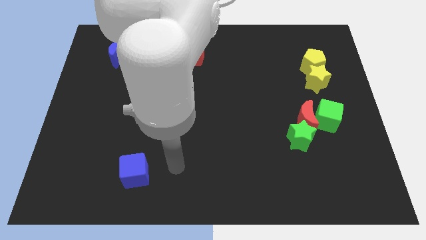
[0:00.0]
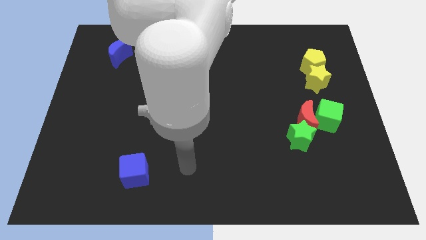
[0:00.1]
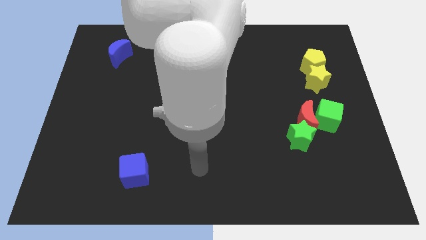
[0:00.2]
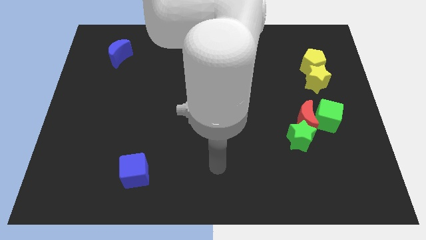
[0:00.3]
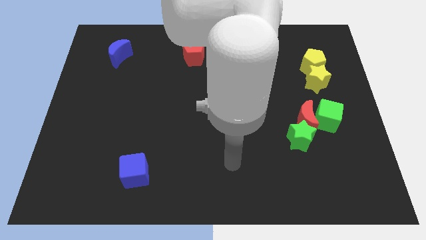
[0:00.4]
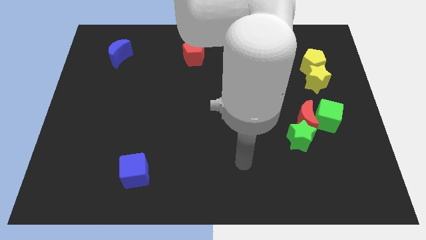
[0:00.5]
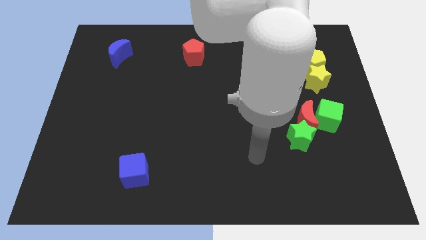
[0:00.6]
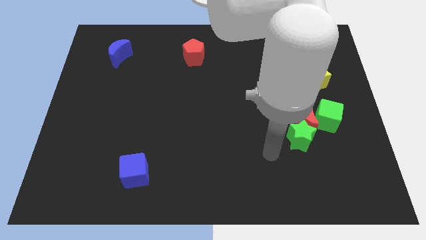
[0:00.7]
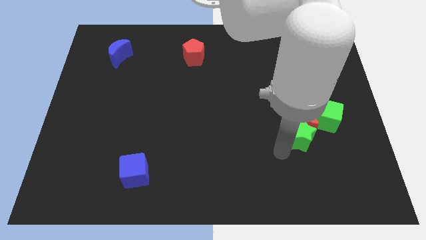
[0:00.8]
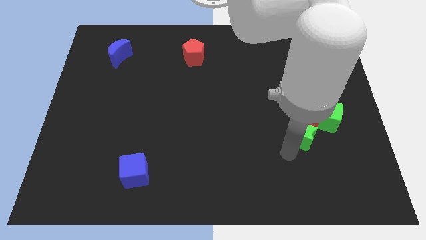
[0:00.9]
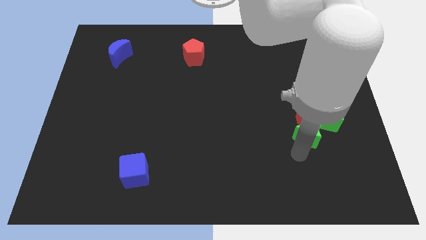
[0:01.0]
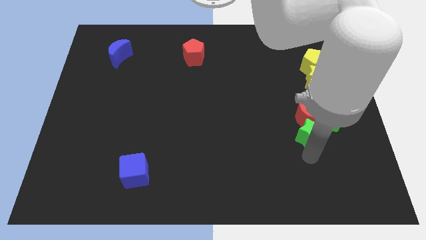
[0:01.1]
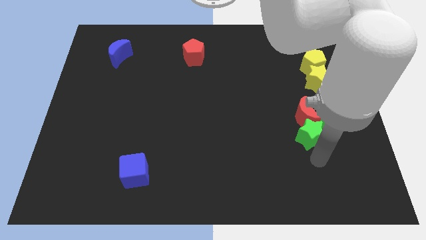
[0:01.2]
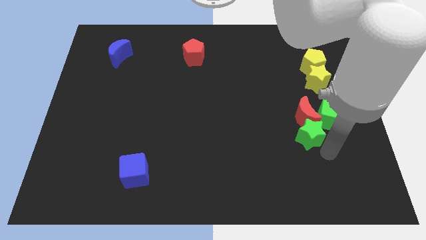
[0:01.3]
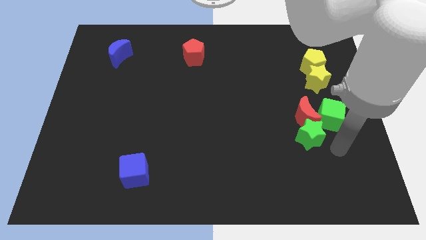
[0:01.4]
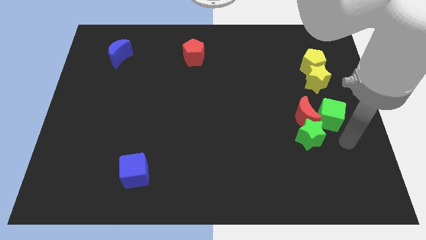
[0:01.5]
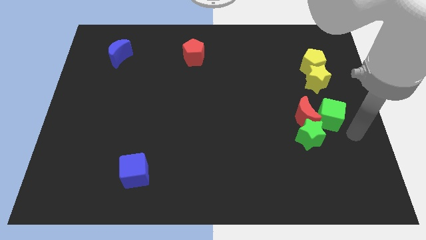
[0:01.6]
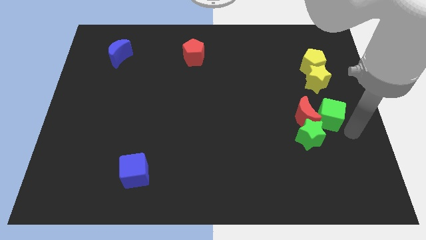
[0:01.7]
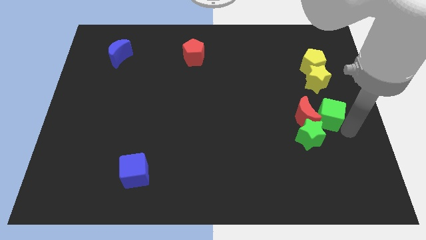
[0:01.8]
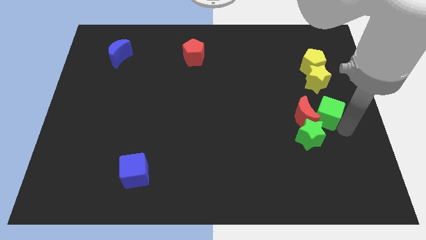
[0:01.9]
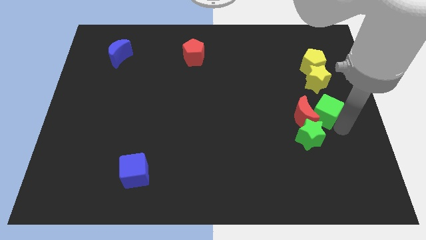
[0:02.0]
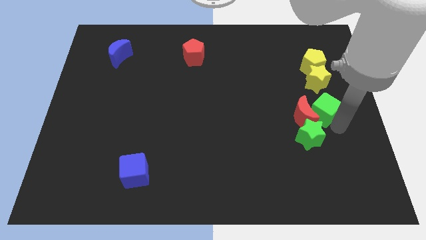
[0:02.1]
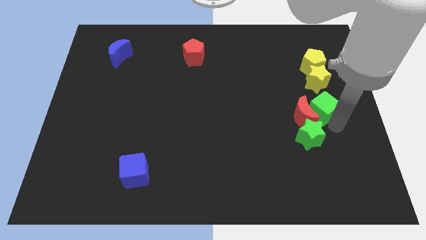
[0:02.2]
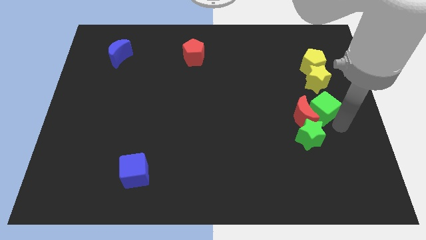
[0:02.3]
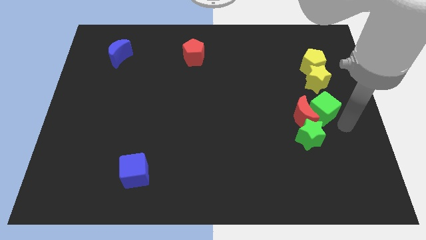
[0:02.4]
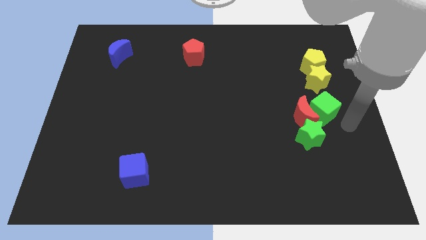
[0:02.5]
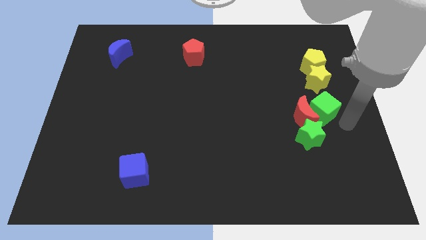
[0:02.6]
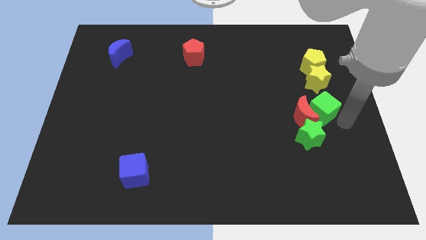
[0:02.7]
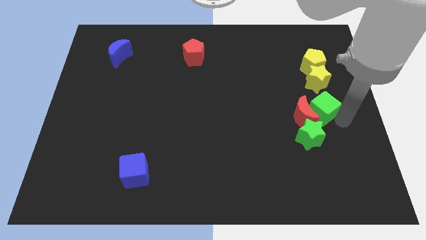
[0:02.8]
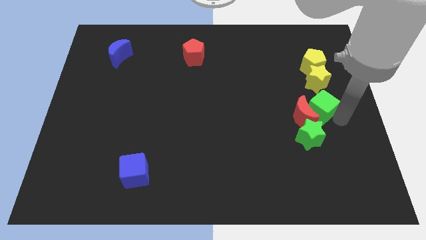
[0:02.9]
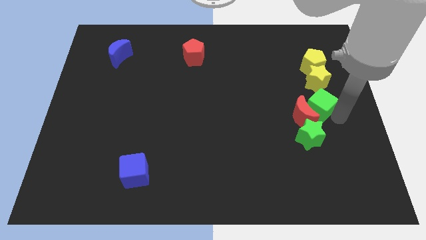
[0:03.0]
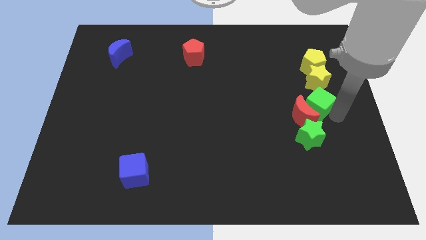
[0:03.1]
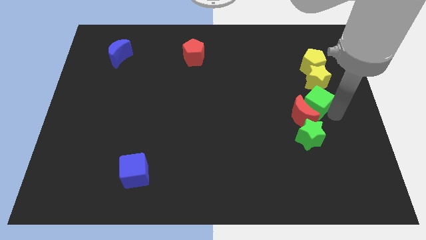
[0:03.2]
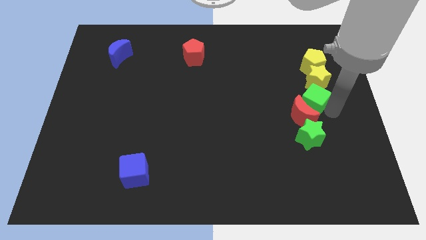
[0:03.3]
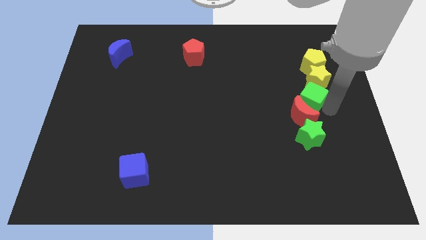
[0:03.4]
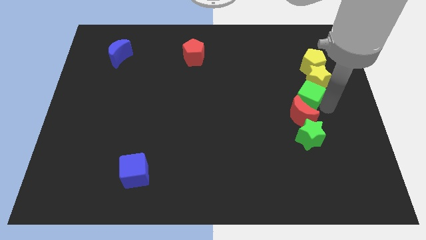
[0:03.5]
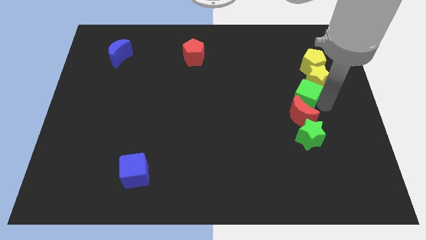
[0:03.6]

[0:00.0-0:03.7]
slightly push the green cube upwards and to the left diagonally

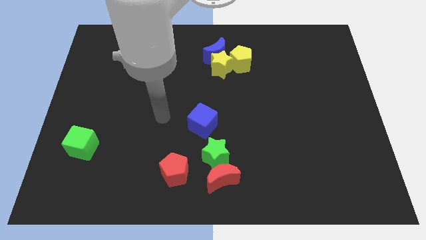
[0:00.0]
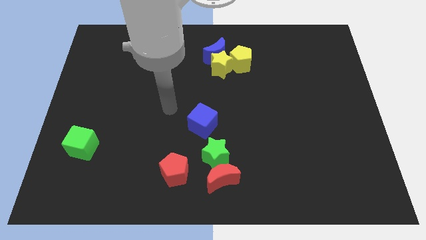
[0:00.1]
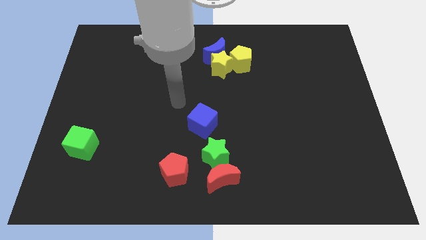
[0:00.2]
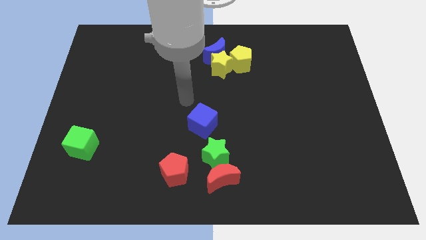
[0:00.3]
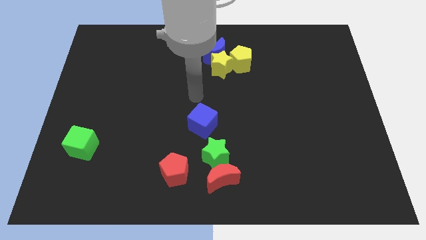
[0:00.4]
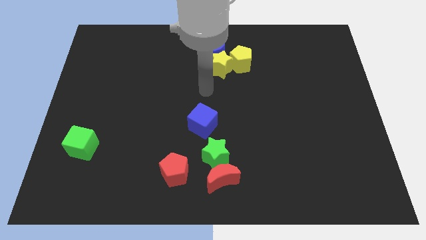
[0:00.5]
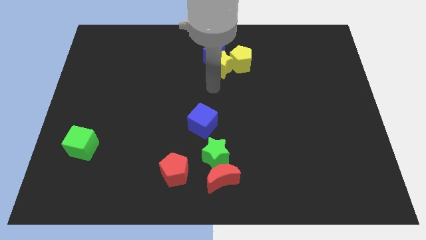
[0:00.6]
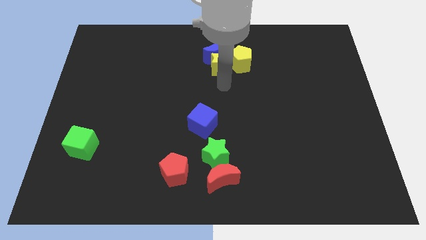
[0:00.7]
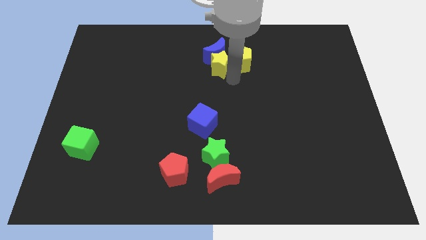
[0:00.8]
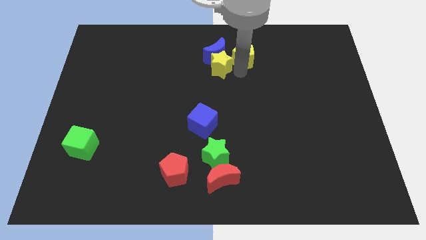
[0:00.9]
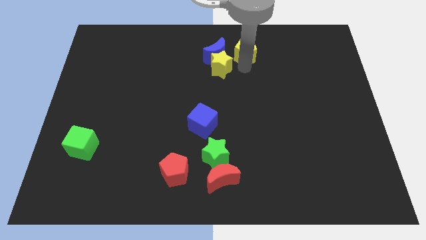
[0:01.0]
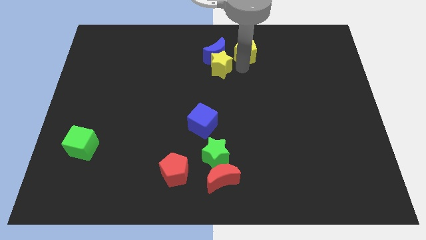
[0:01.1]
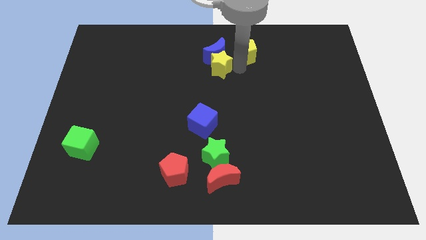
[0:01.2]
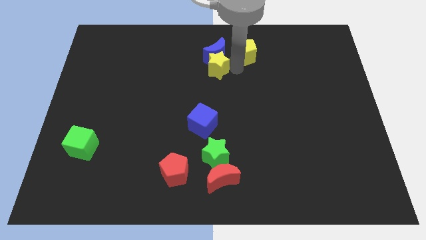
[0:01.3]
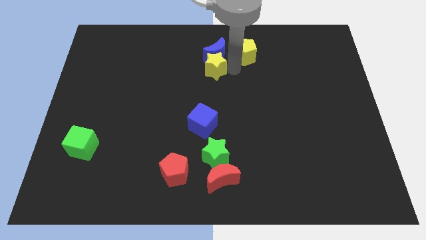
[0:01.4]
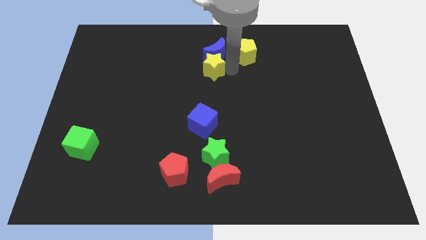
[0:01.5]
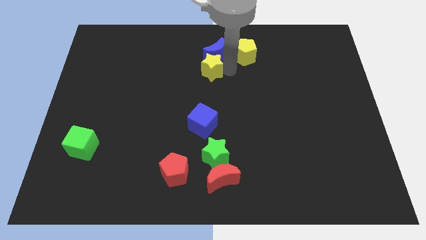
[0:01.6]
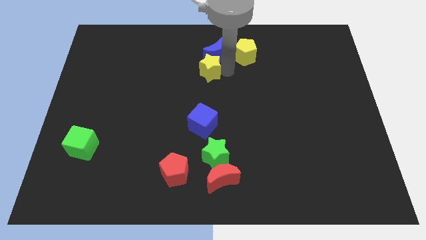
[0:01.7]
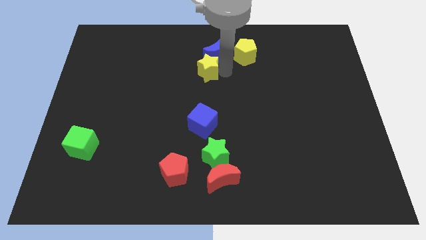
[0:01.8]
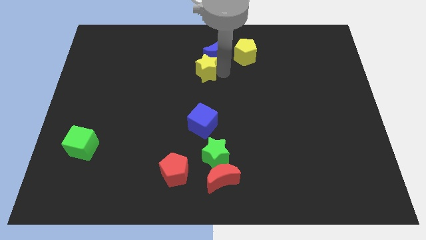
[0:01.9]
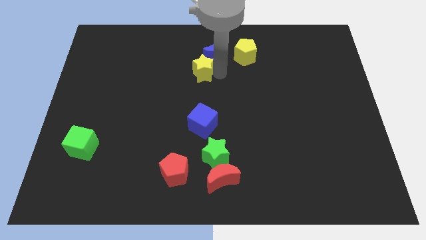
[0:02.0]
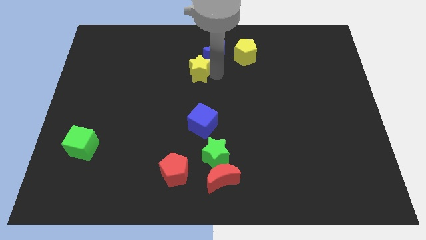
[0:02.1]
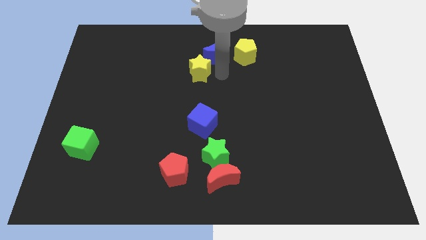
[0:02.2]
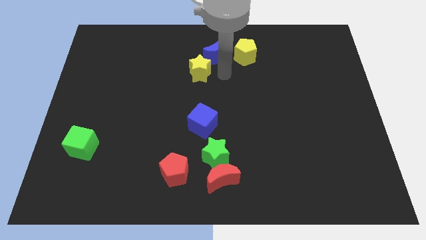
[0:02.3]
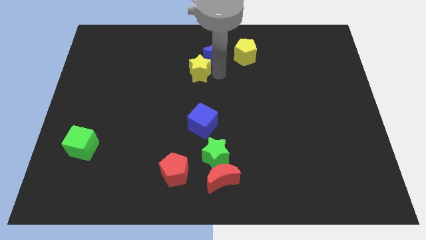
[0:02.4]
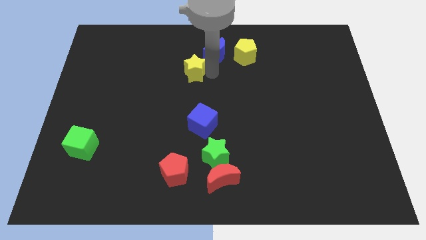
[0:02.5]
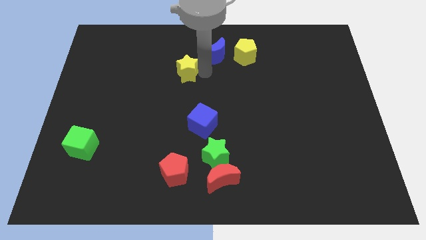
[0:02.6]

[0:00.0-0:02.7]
push the yellow star left a bit

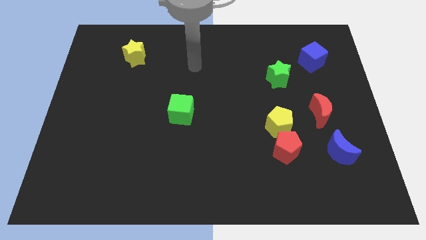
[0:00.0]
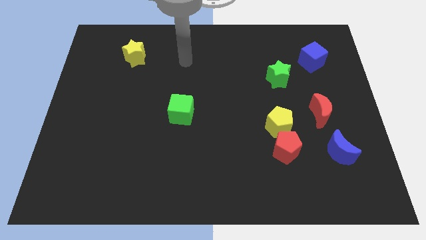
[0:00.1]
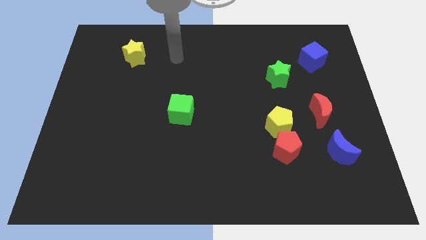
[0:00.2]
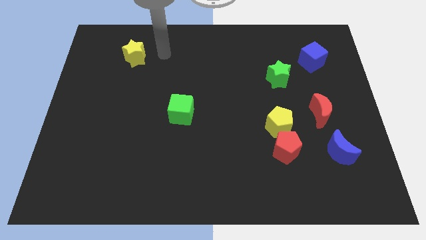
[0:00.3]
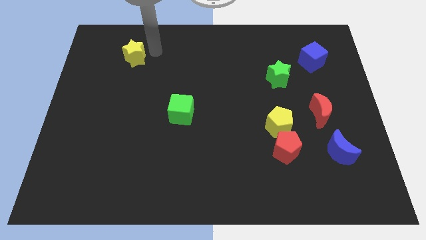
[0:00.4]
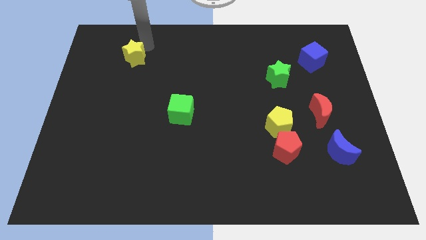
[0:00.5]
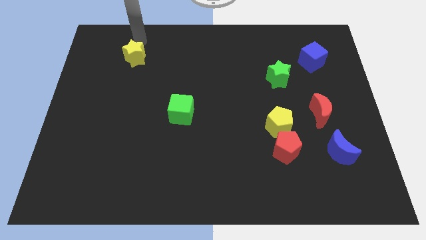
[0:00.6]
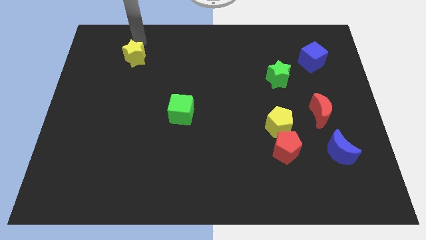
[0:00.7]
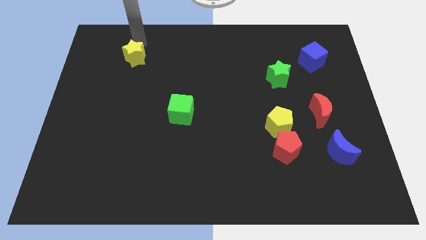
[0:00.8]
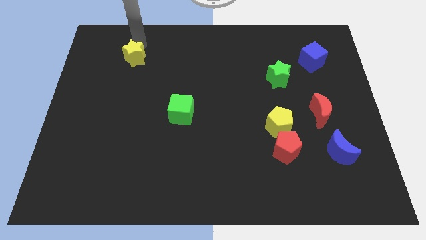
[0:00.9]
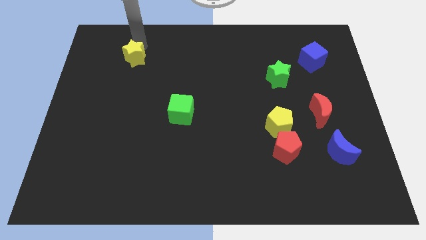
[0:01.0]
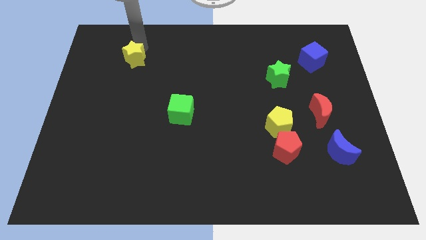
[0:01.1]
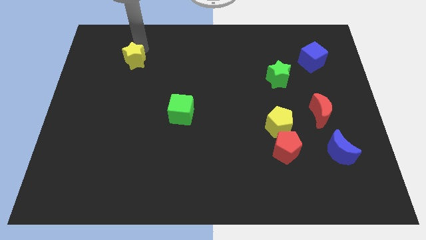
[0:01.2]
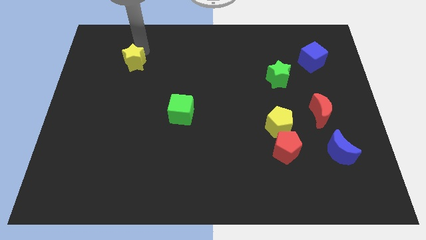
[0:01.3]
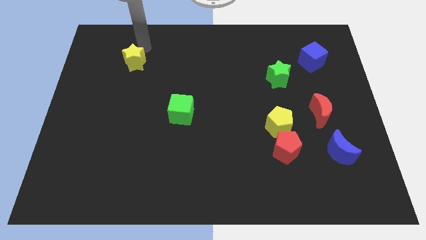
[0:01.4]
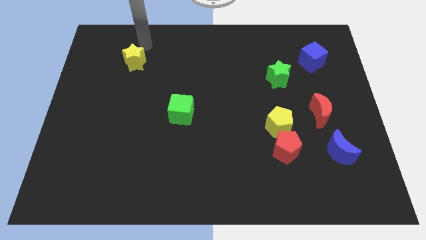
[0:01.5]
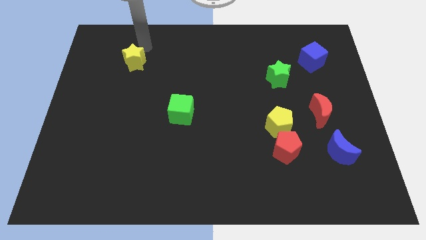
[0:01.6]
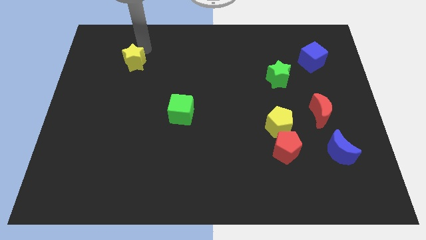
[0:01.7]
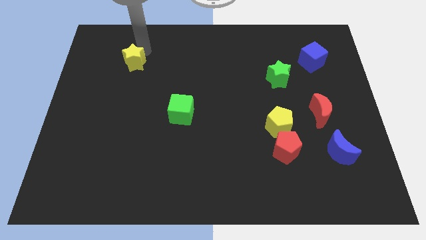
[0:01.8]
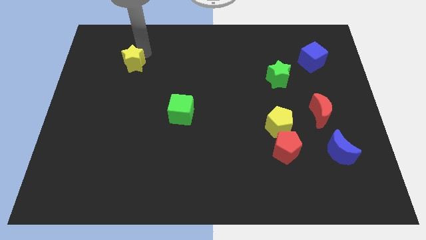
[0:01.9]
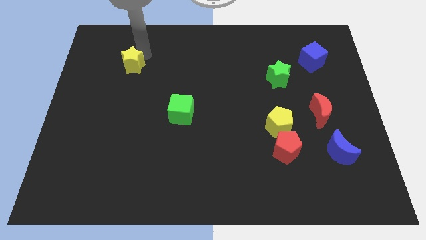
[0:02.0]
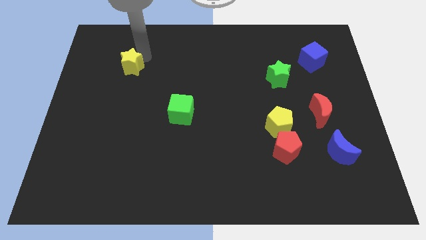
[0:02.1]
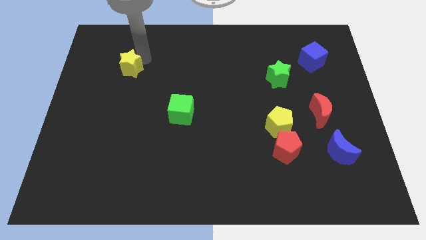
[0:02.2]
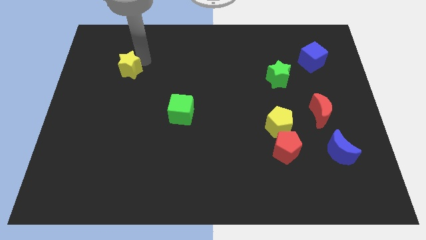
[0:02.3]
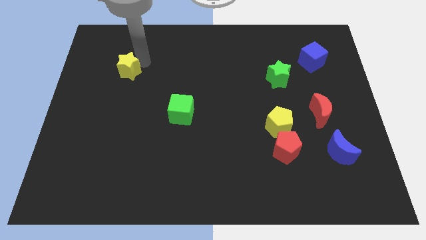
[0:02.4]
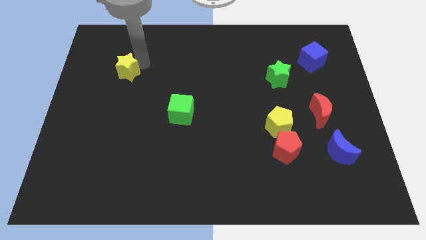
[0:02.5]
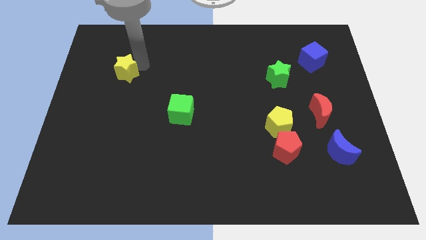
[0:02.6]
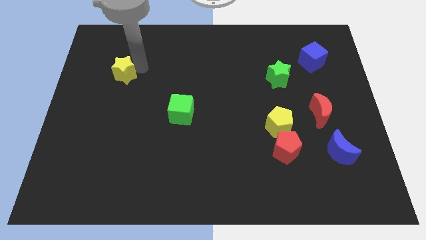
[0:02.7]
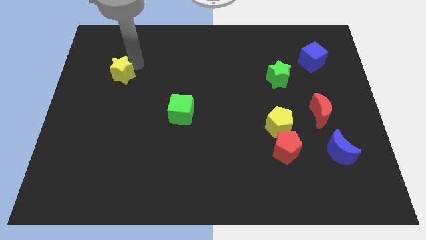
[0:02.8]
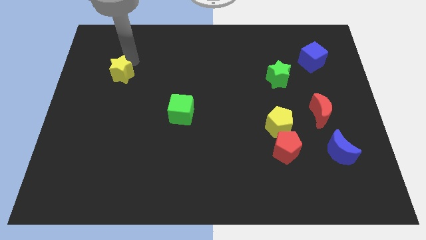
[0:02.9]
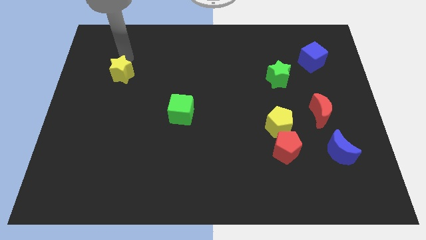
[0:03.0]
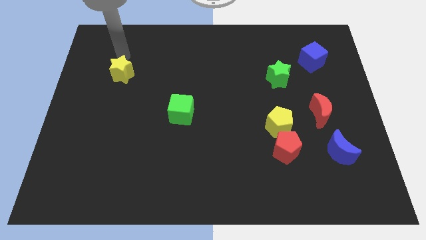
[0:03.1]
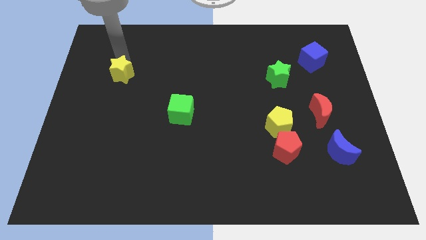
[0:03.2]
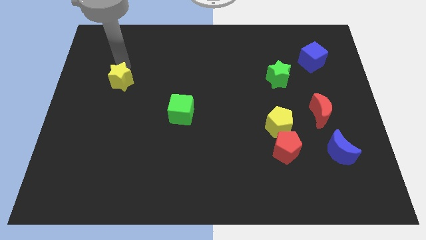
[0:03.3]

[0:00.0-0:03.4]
slide the yellow star slightly down
